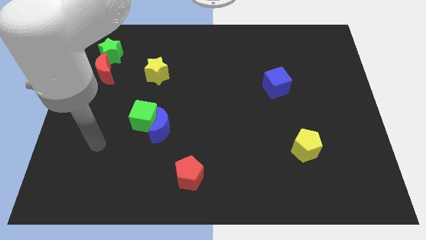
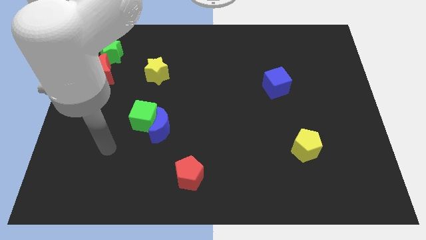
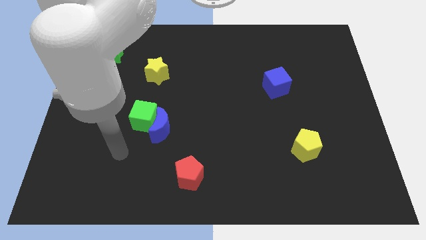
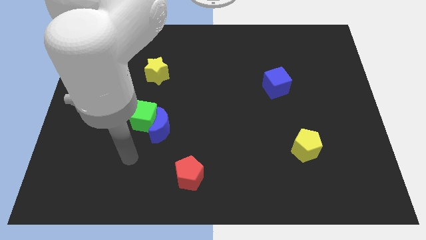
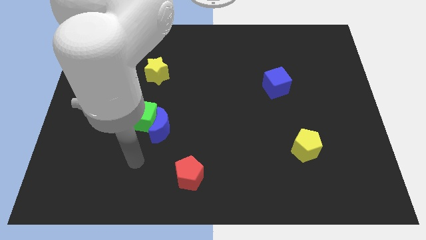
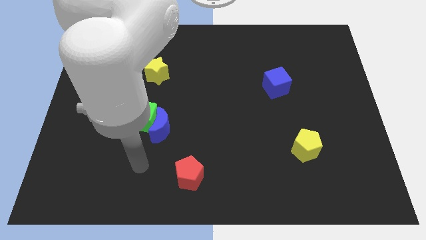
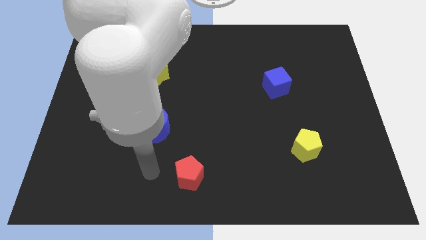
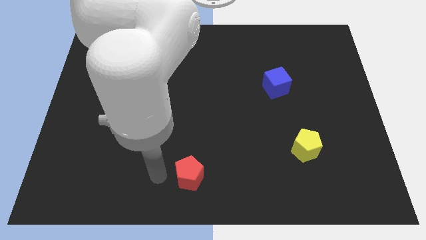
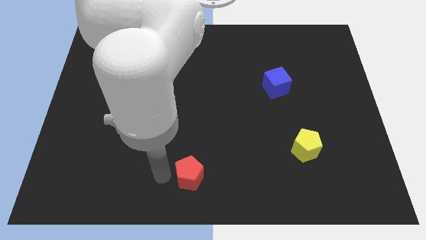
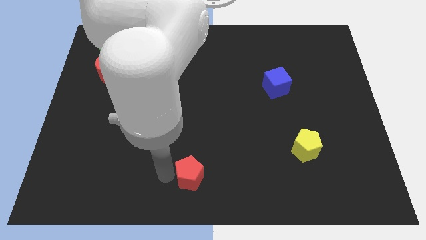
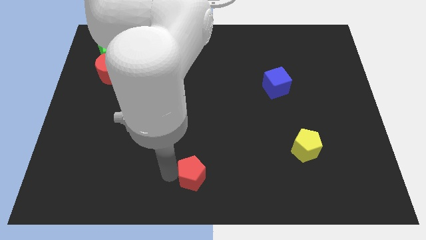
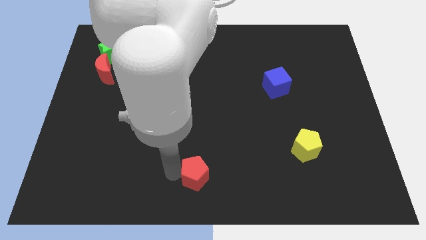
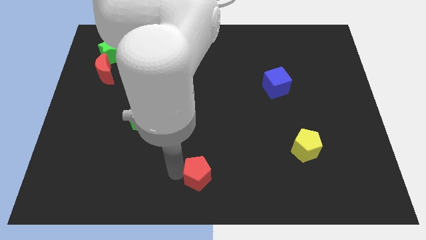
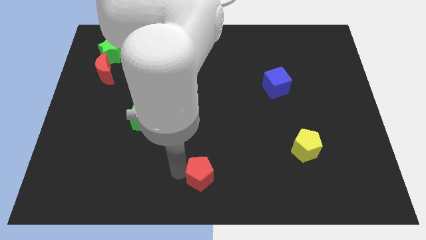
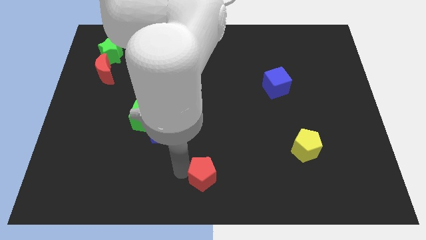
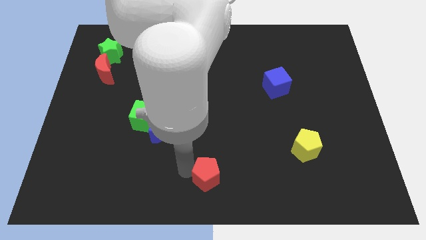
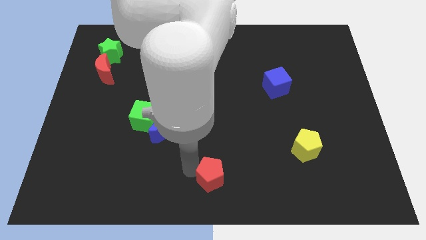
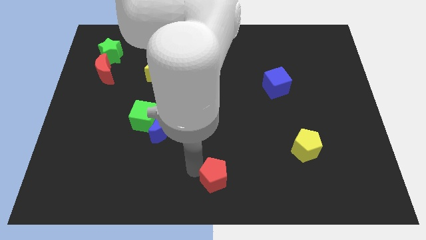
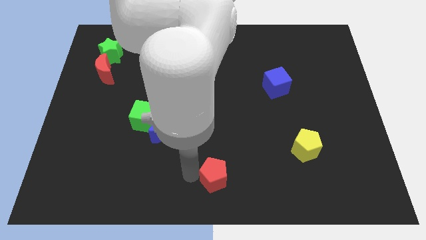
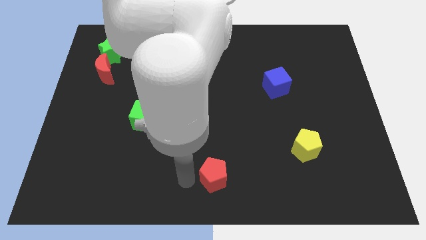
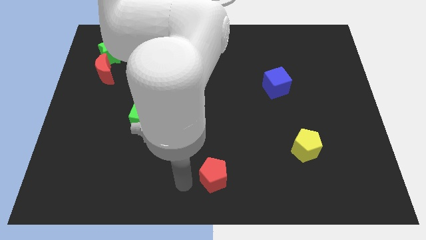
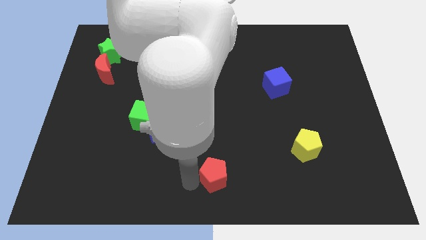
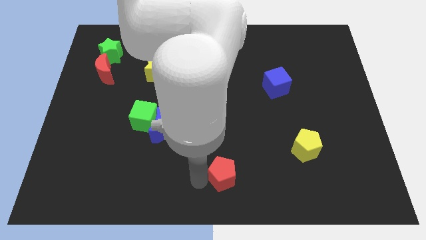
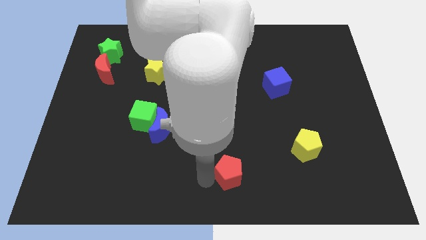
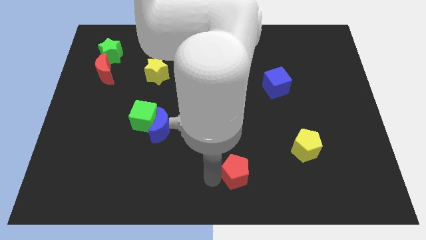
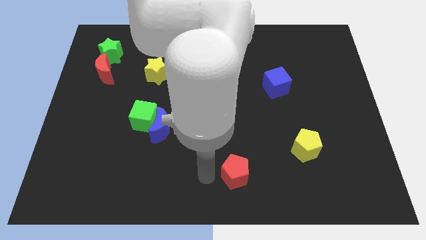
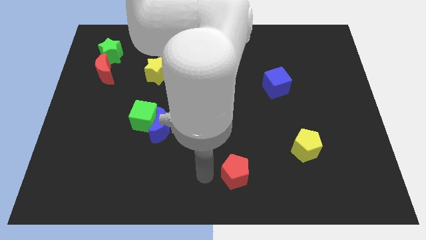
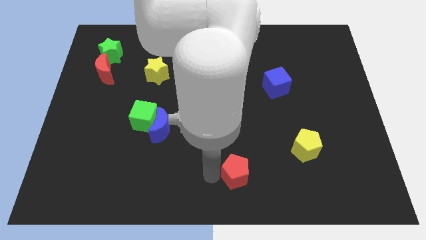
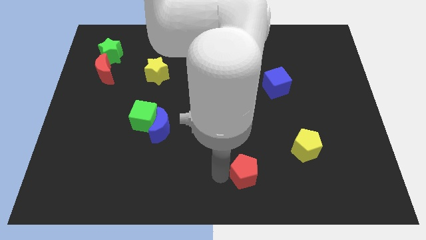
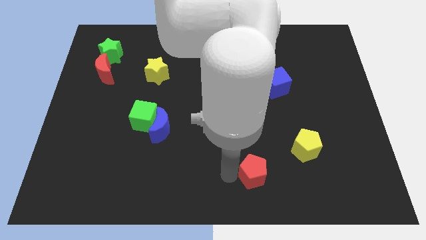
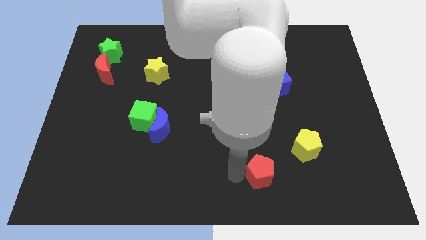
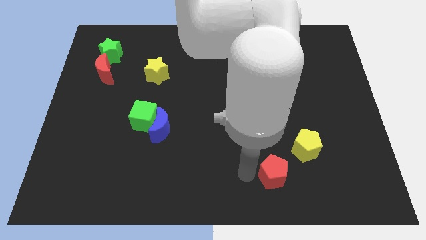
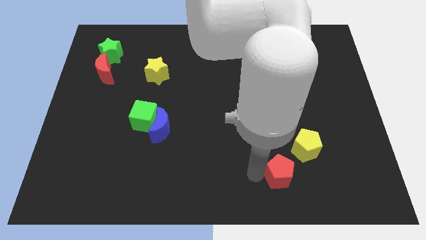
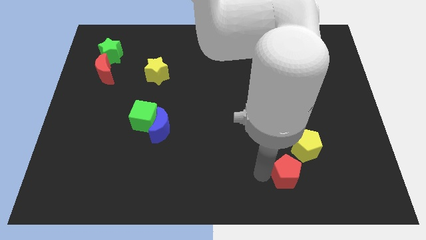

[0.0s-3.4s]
slide the red pentagon right

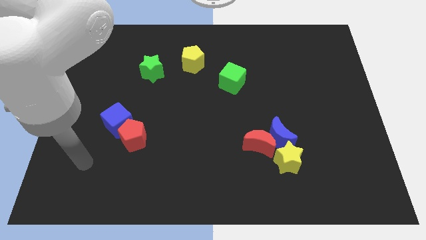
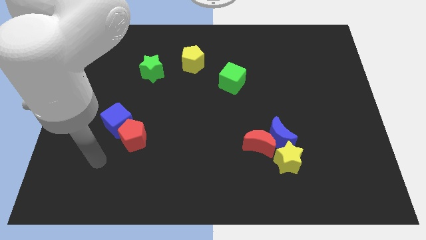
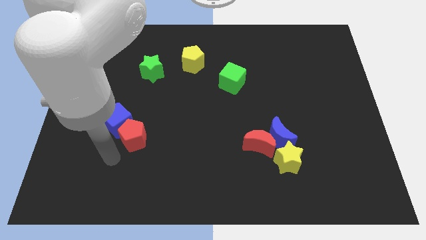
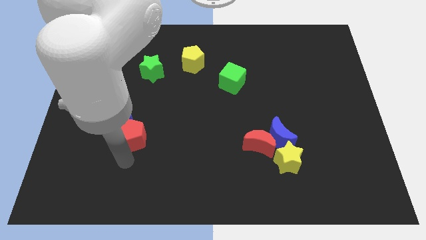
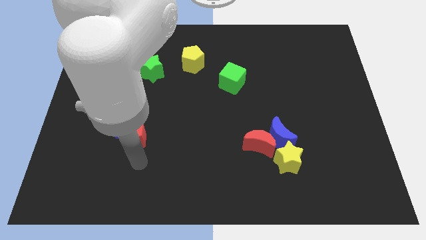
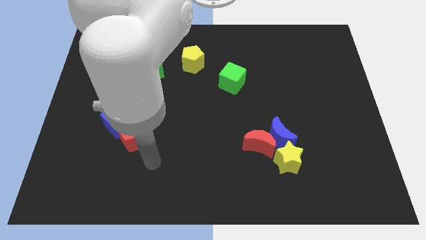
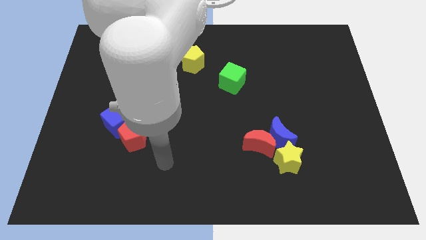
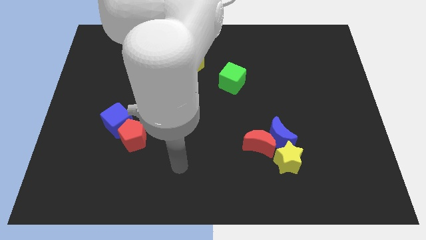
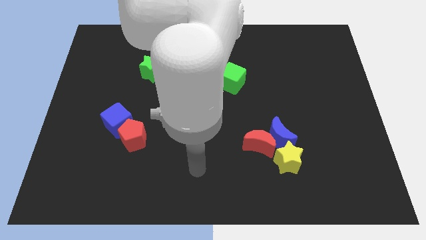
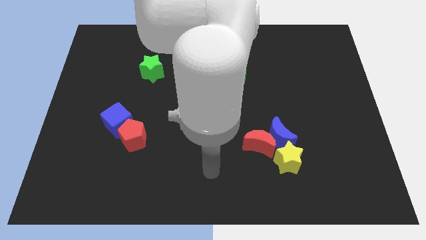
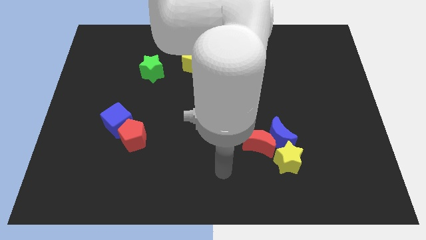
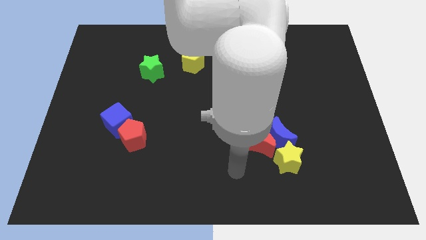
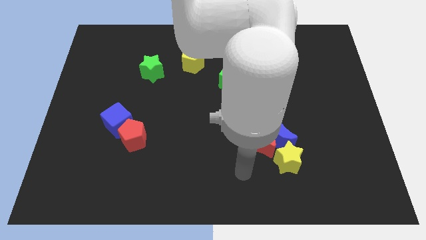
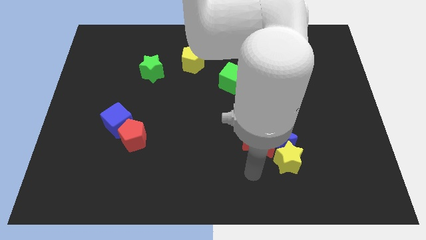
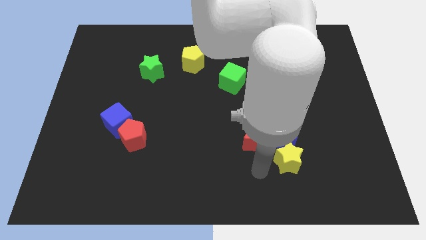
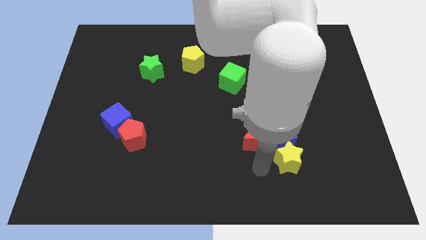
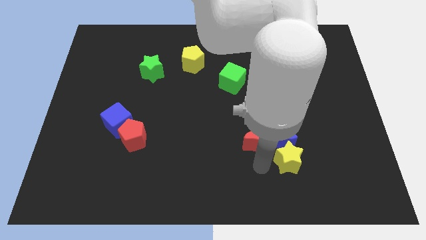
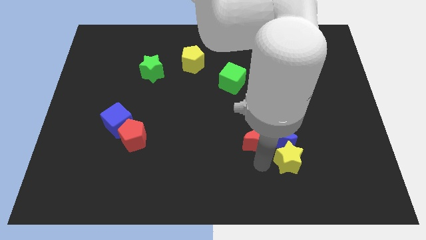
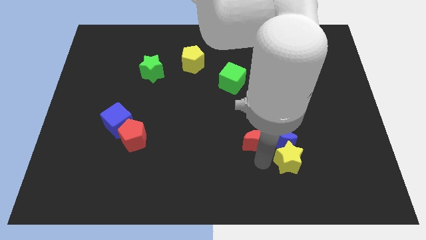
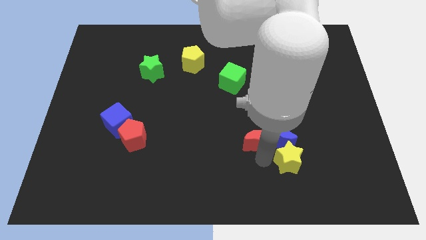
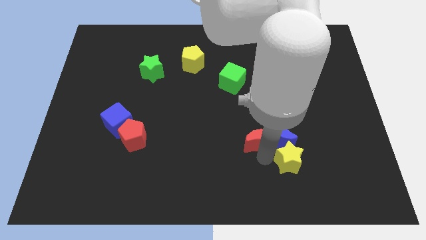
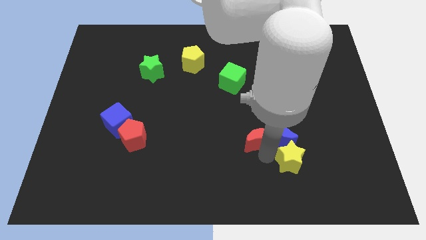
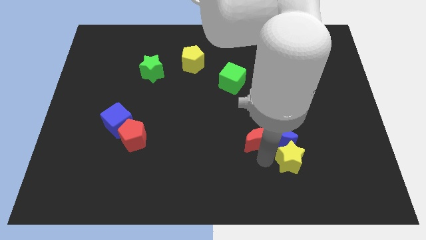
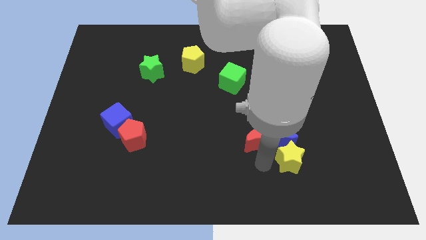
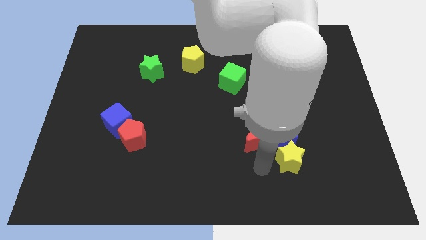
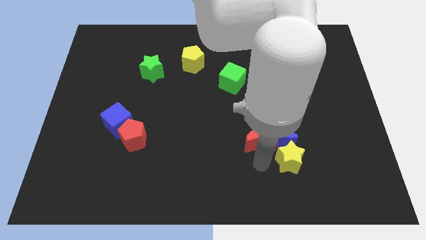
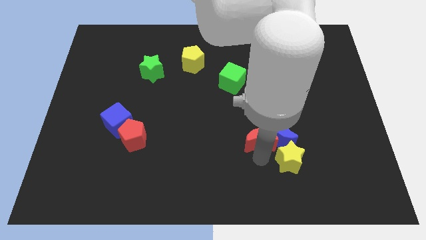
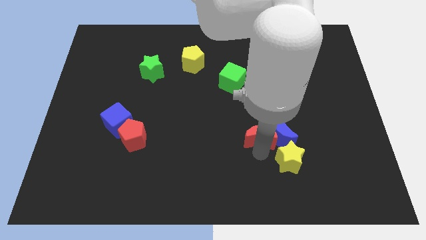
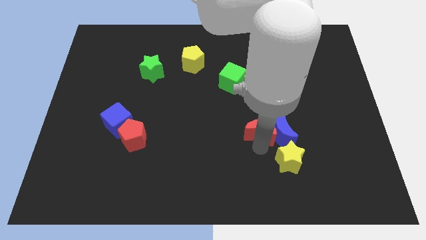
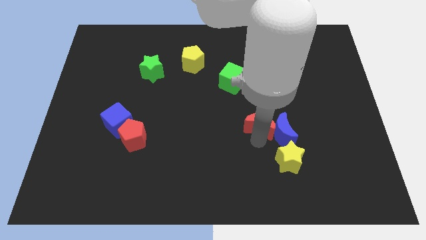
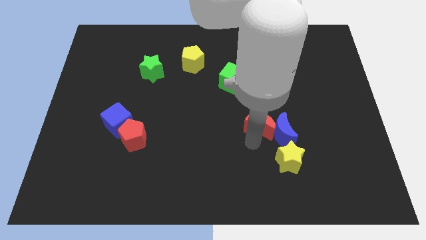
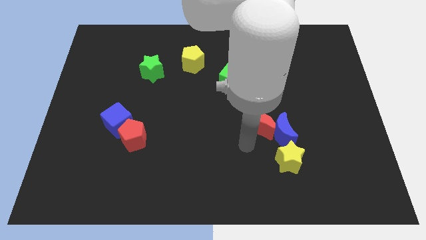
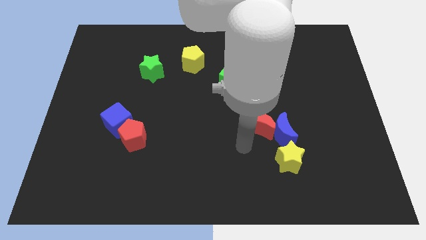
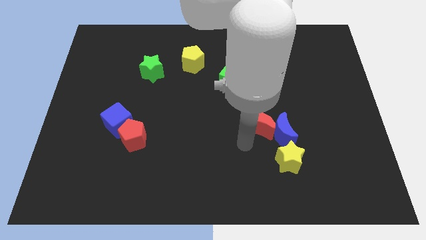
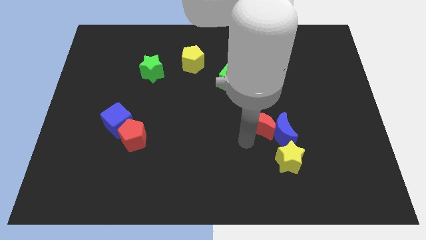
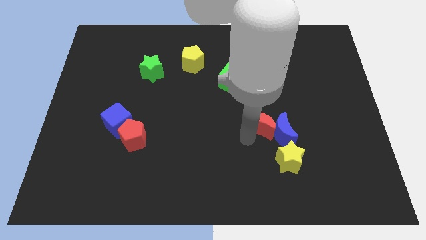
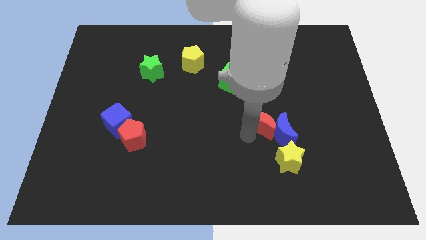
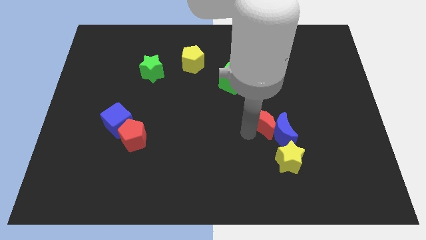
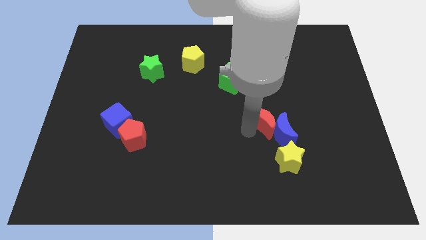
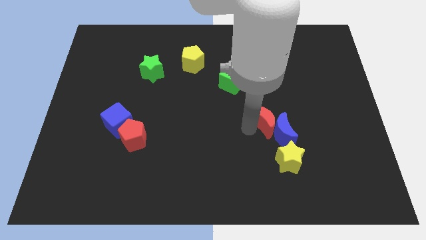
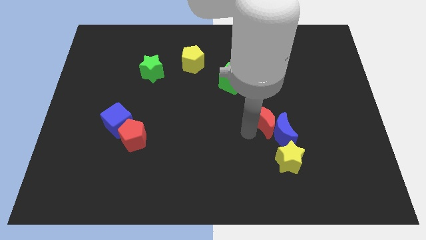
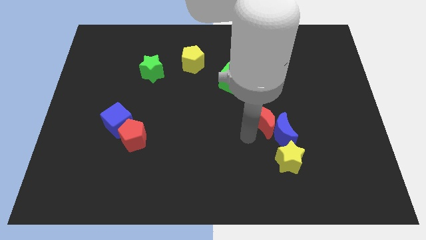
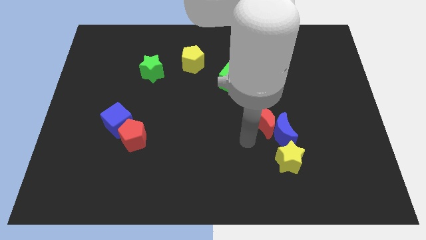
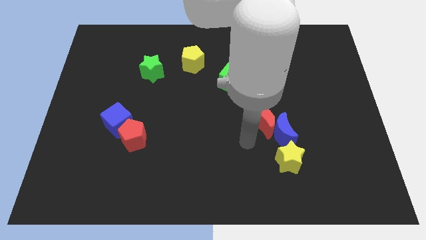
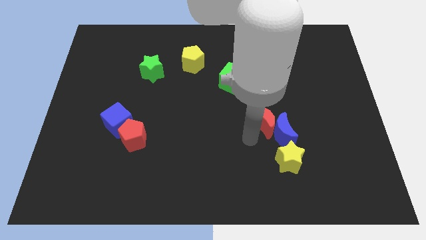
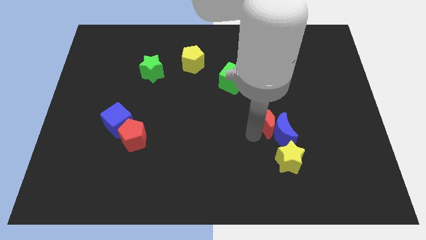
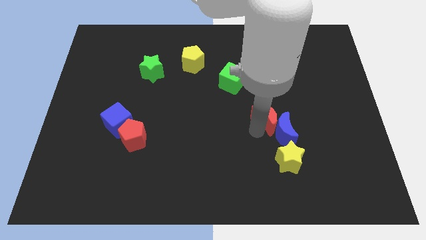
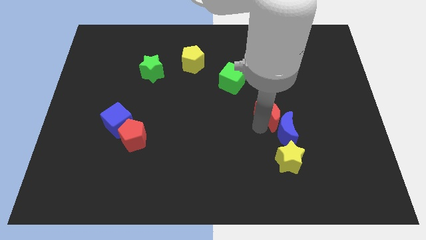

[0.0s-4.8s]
move the red moon a little up and then right

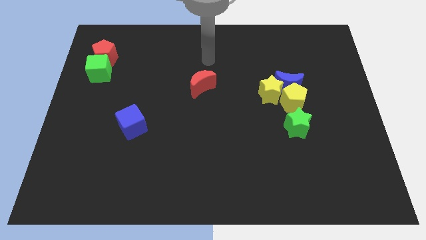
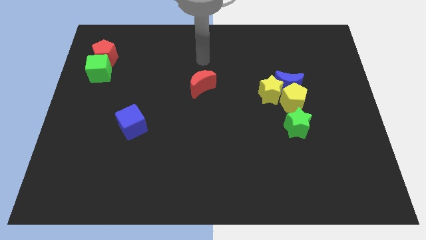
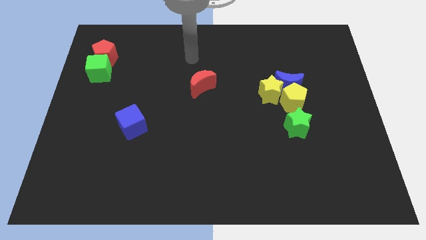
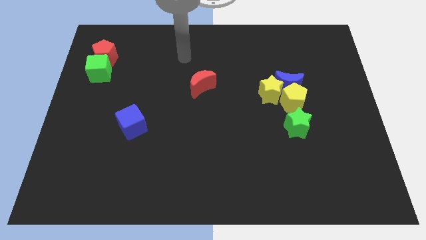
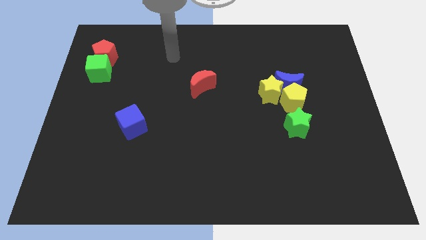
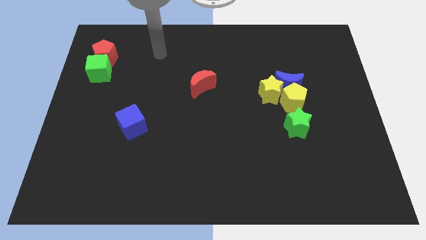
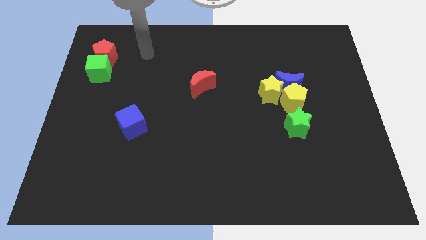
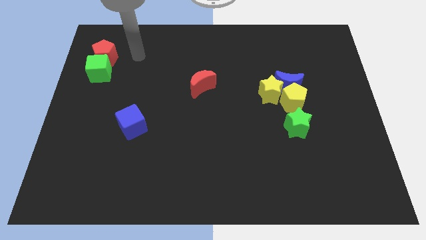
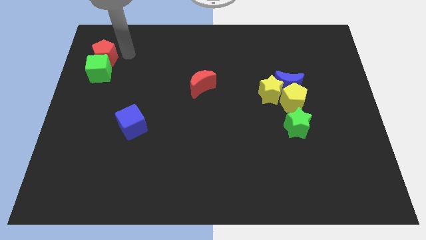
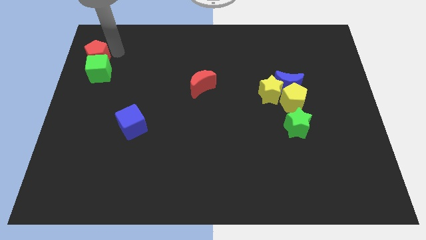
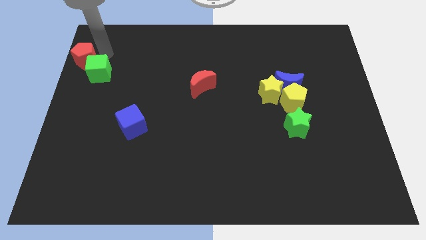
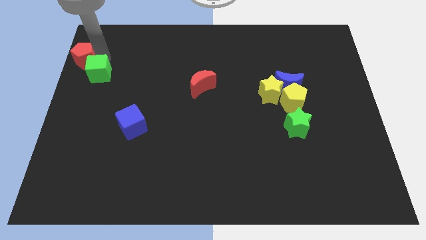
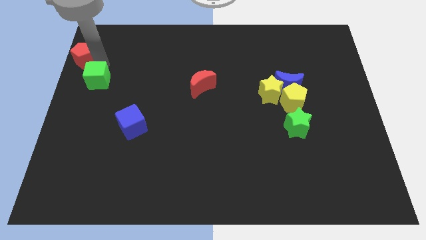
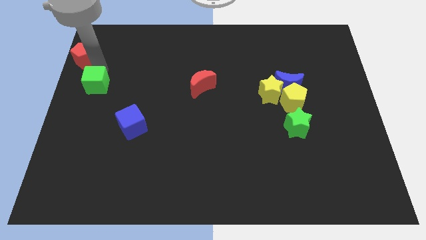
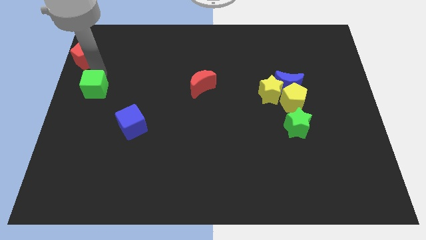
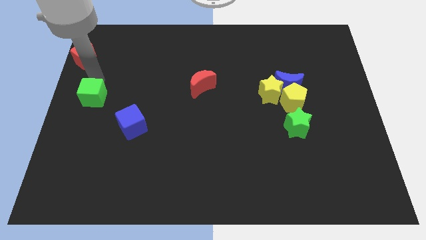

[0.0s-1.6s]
slightly move the green cube down
